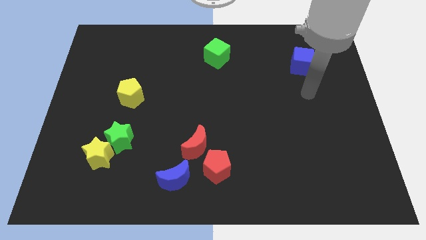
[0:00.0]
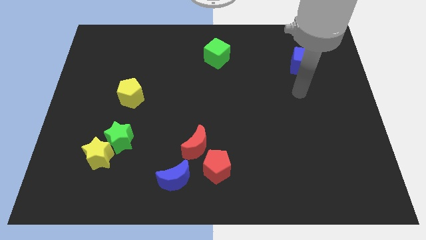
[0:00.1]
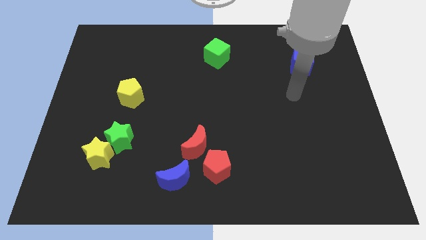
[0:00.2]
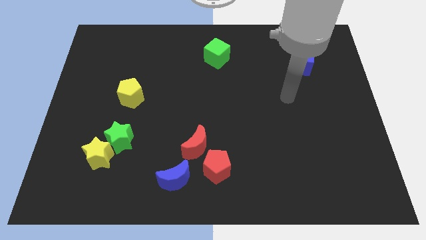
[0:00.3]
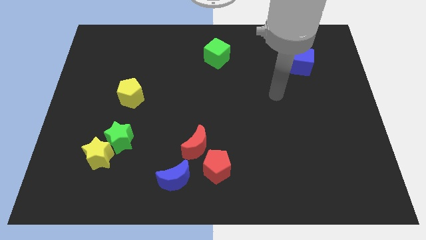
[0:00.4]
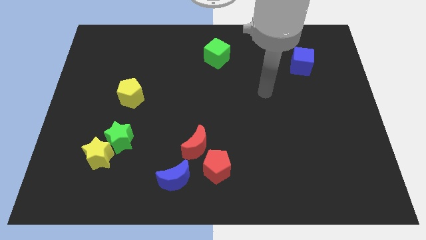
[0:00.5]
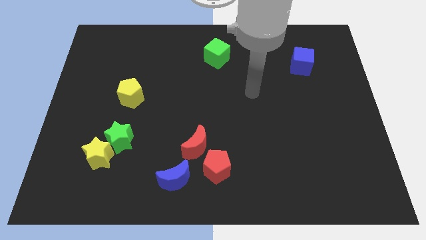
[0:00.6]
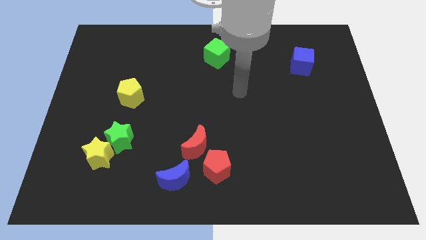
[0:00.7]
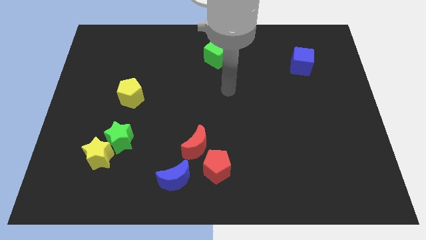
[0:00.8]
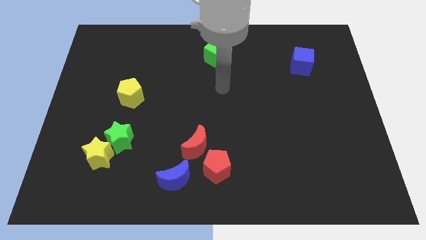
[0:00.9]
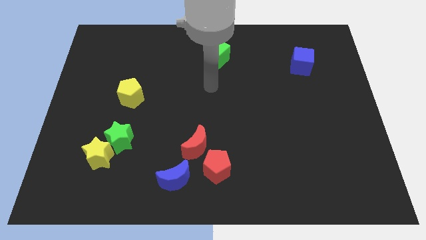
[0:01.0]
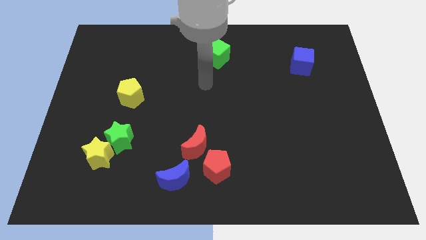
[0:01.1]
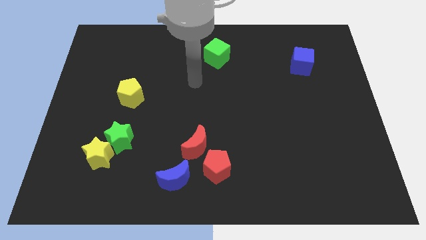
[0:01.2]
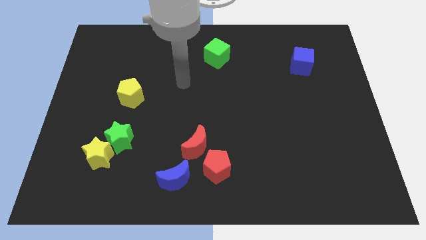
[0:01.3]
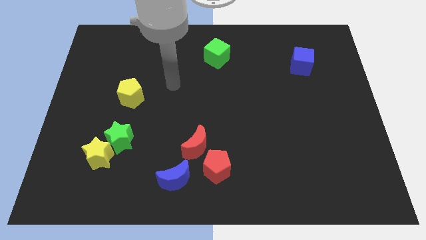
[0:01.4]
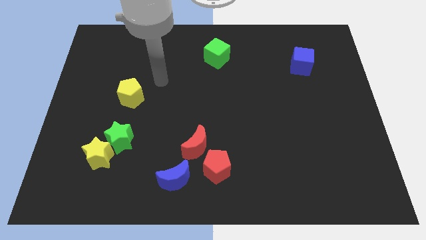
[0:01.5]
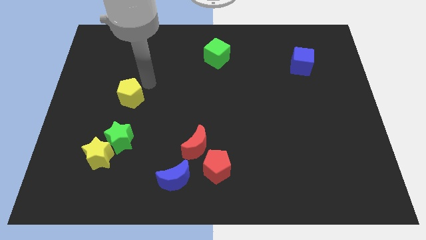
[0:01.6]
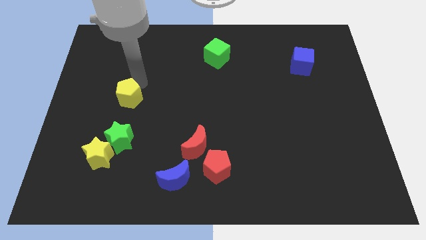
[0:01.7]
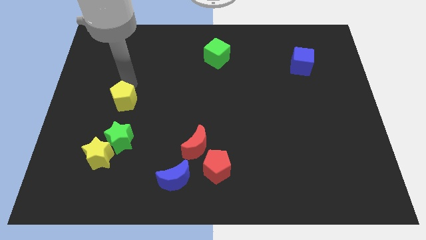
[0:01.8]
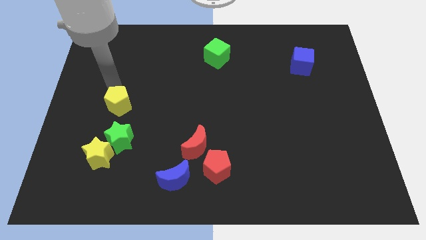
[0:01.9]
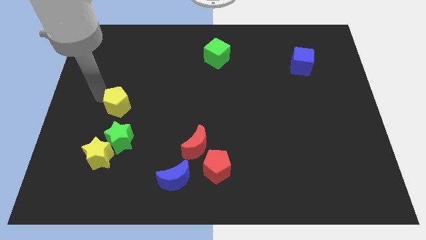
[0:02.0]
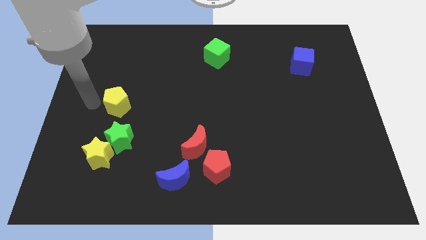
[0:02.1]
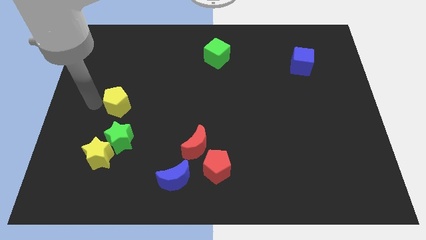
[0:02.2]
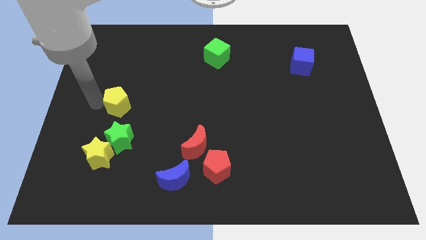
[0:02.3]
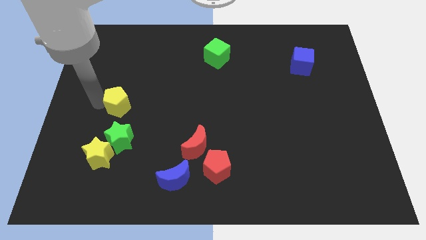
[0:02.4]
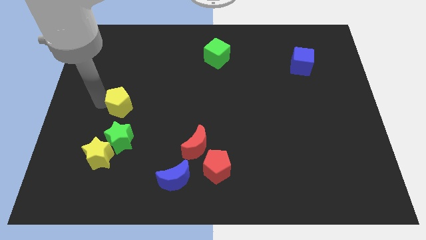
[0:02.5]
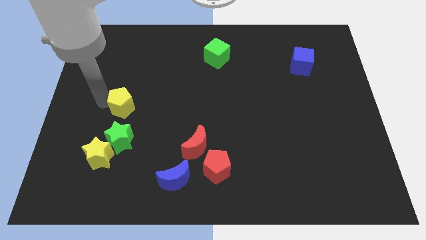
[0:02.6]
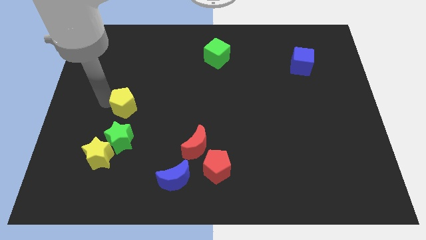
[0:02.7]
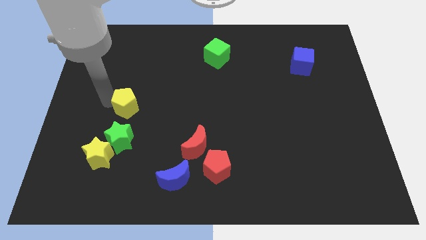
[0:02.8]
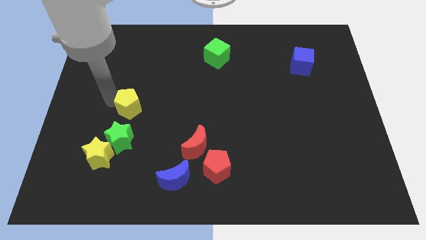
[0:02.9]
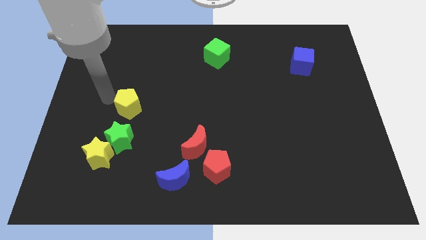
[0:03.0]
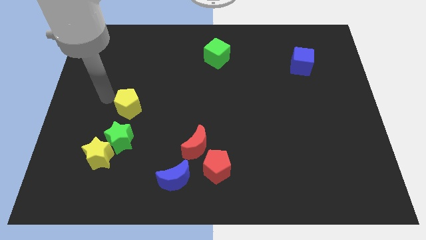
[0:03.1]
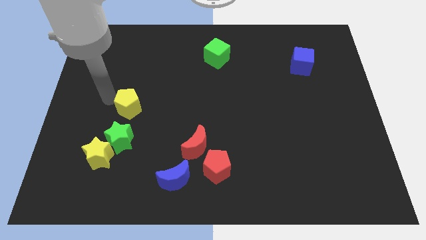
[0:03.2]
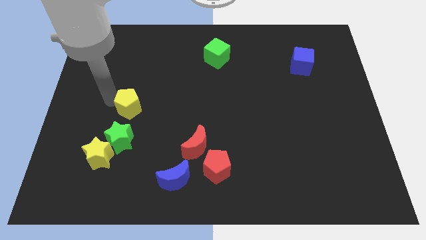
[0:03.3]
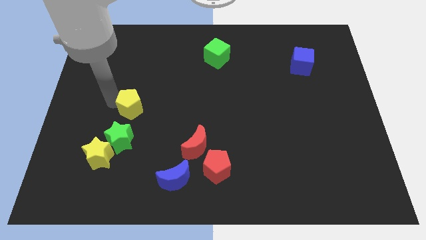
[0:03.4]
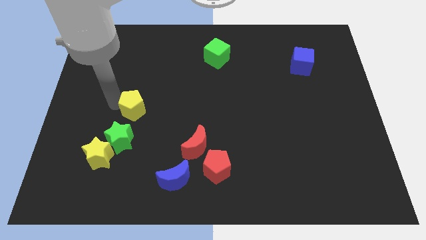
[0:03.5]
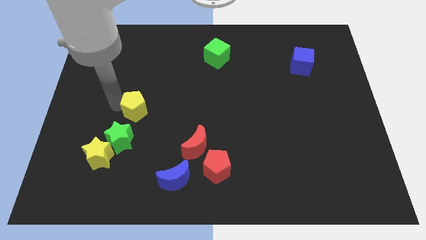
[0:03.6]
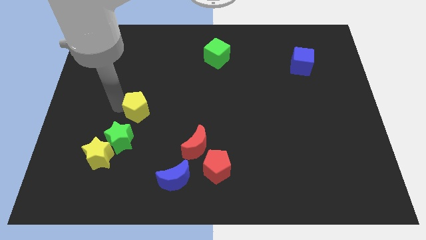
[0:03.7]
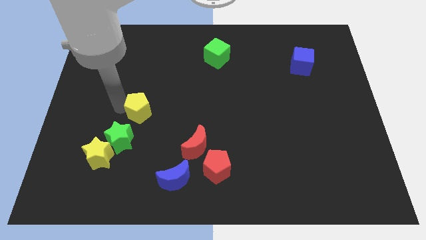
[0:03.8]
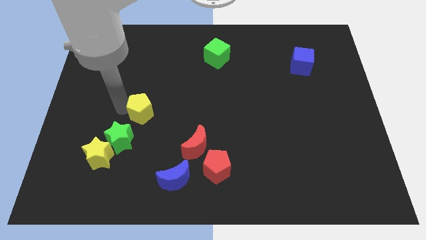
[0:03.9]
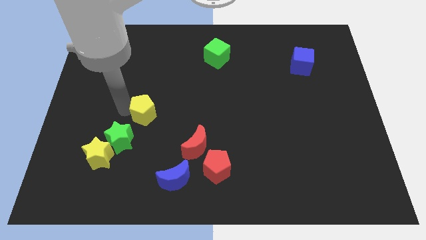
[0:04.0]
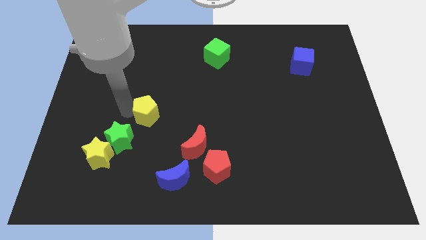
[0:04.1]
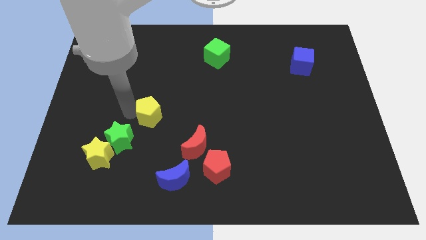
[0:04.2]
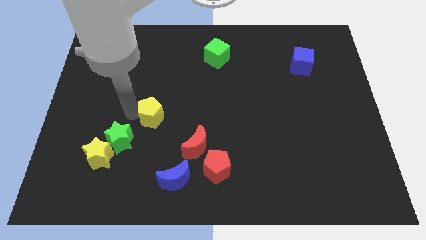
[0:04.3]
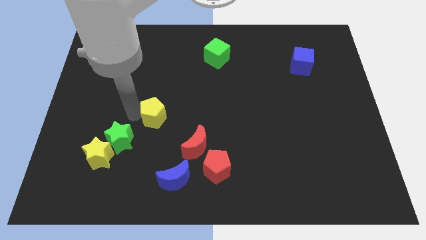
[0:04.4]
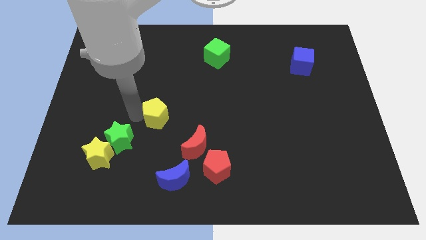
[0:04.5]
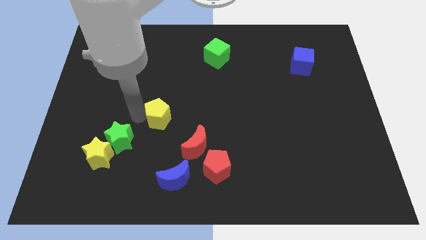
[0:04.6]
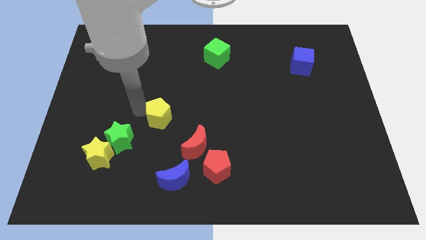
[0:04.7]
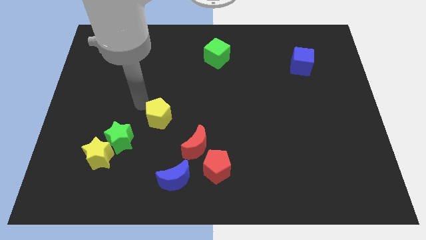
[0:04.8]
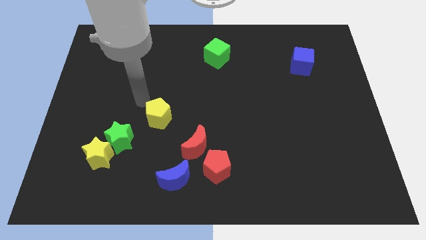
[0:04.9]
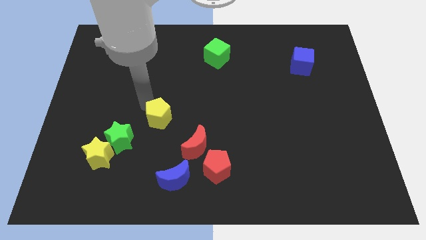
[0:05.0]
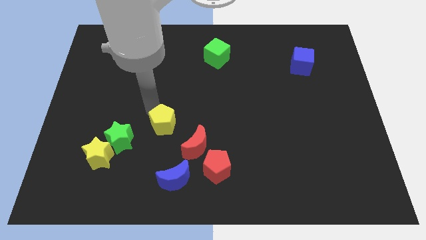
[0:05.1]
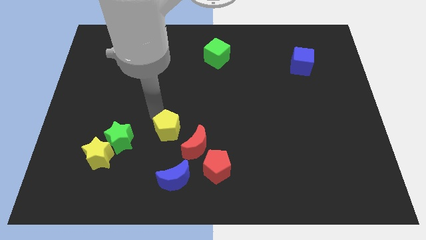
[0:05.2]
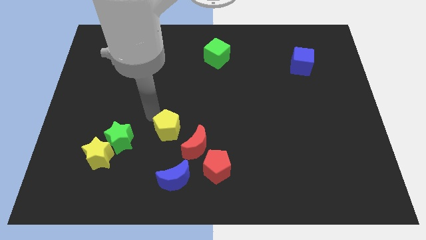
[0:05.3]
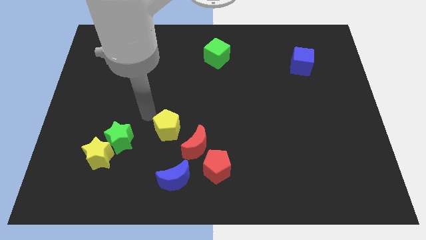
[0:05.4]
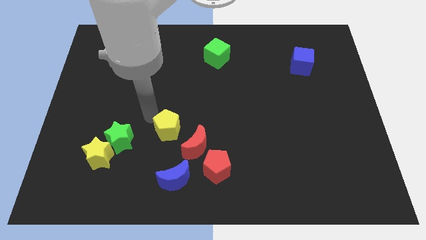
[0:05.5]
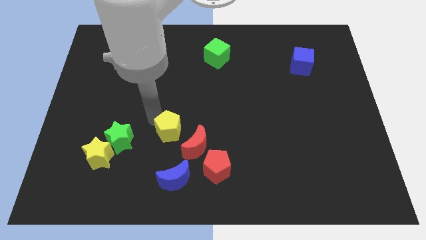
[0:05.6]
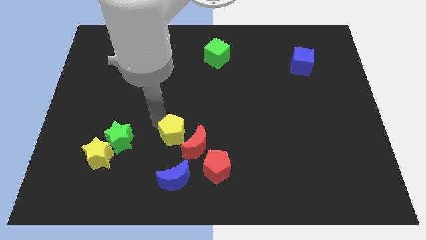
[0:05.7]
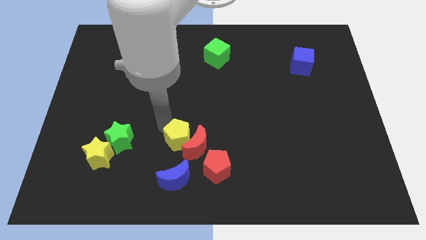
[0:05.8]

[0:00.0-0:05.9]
push the yellow pentagon to the top left side of the red pentagon

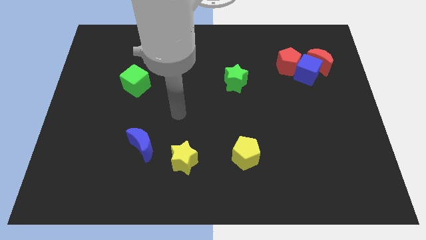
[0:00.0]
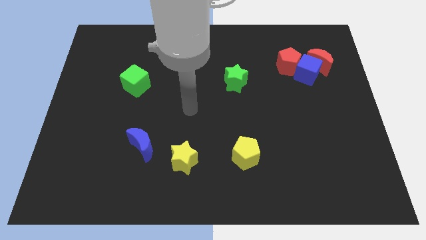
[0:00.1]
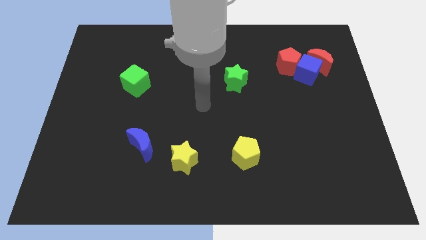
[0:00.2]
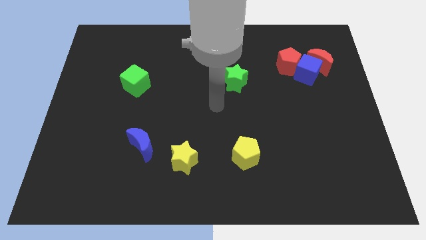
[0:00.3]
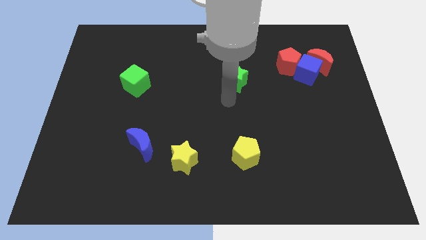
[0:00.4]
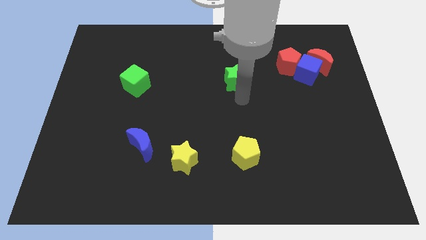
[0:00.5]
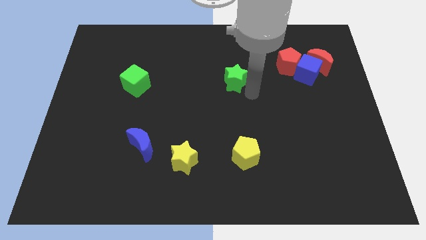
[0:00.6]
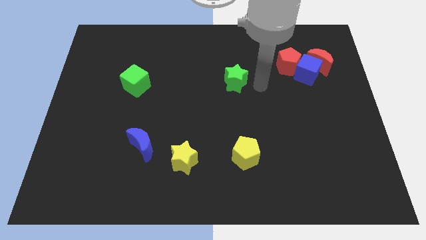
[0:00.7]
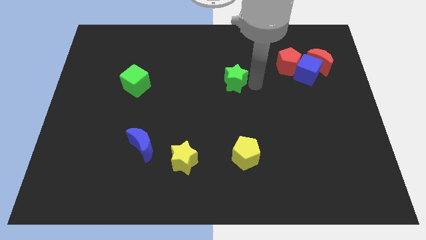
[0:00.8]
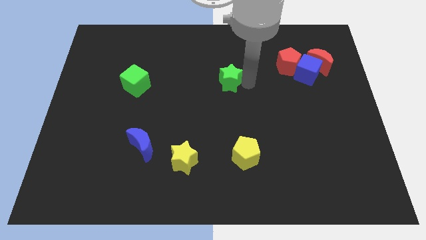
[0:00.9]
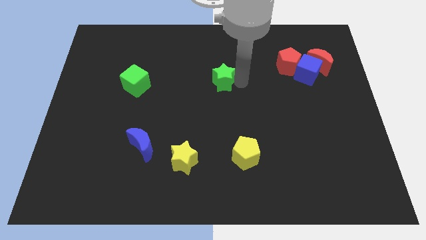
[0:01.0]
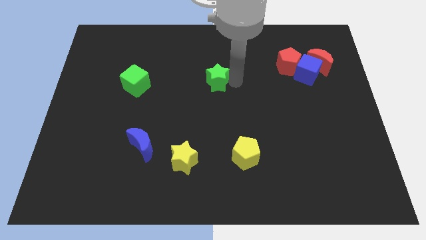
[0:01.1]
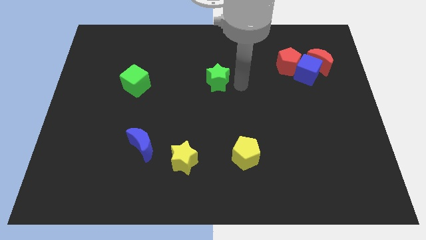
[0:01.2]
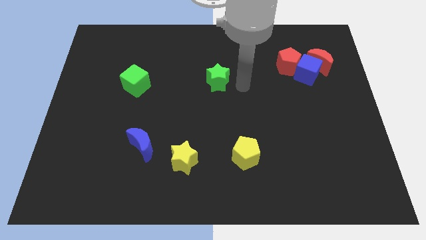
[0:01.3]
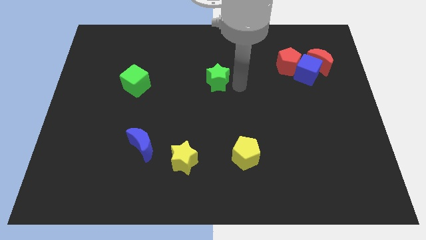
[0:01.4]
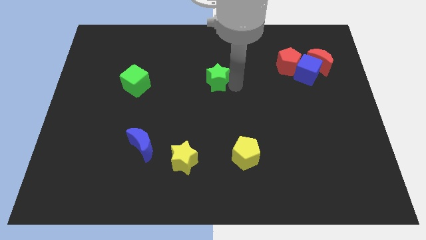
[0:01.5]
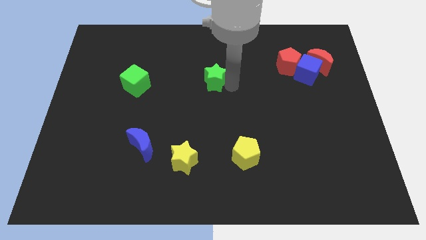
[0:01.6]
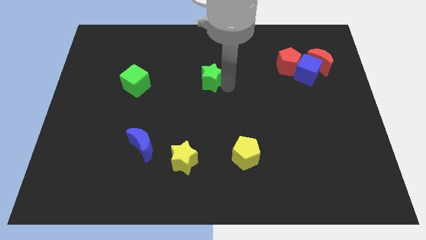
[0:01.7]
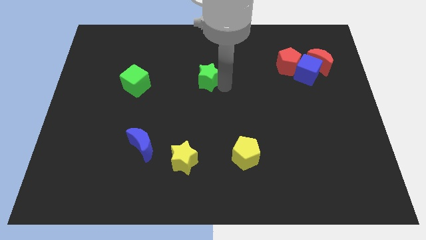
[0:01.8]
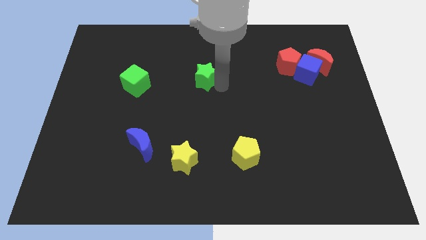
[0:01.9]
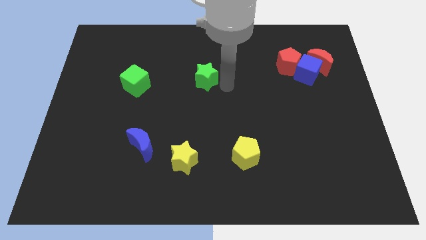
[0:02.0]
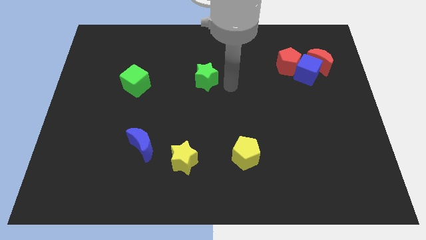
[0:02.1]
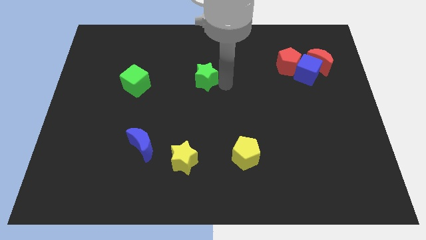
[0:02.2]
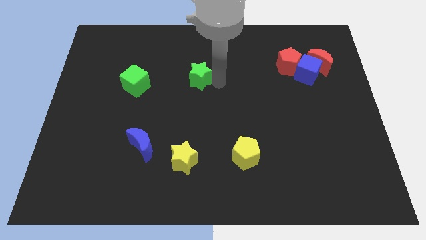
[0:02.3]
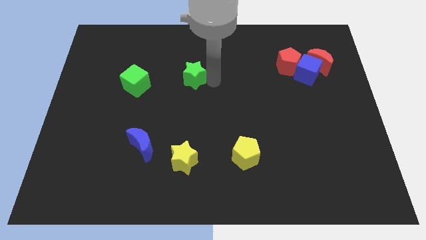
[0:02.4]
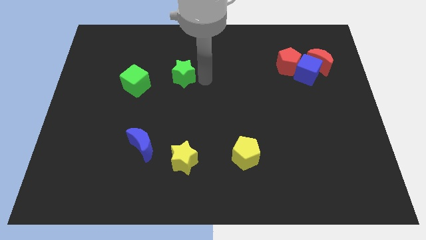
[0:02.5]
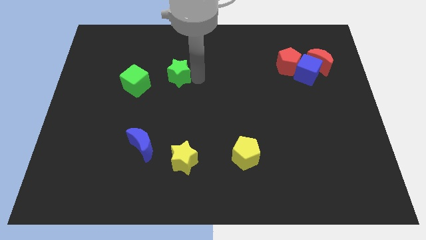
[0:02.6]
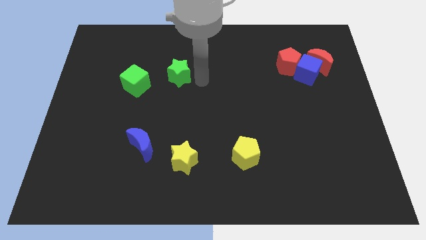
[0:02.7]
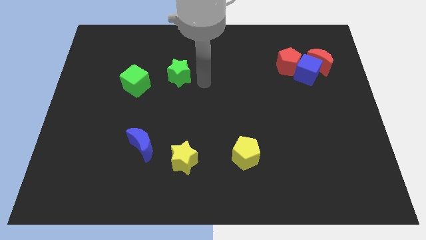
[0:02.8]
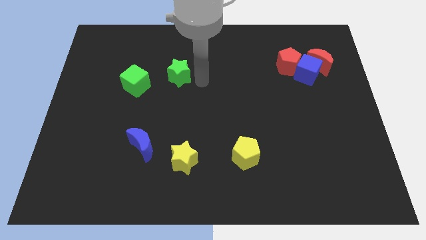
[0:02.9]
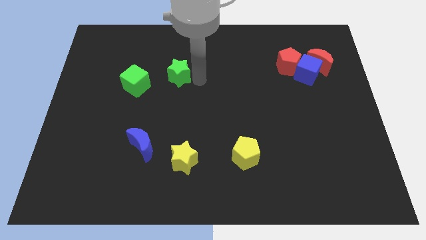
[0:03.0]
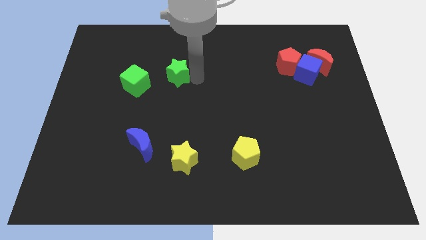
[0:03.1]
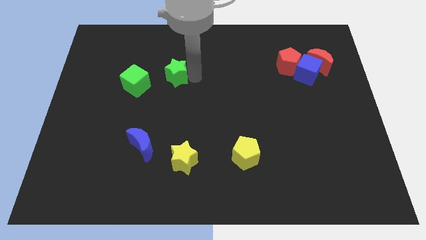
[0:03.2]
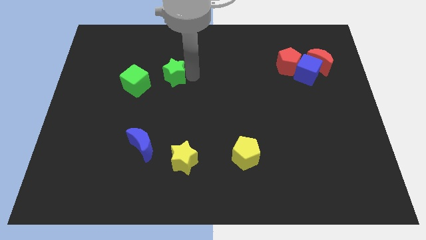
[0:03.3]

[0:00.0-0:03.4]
slide the green star to the top right of the green cube
